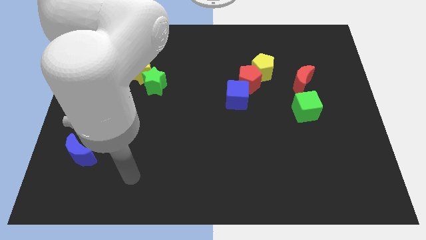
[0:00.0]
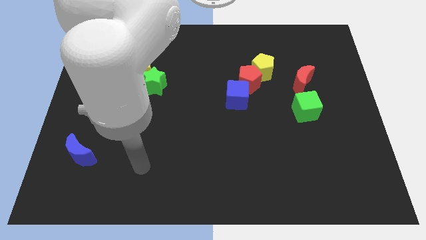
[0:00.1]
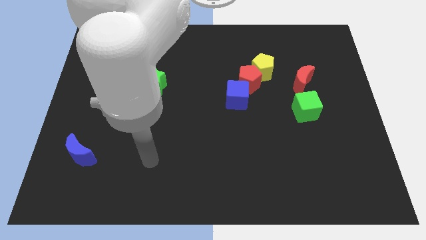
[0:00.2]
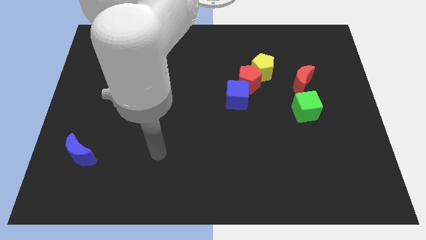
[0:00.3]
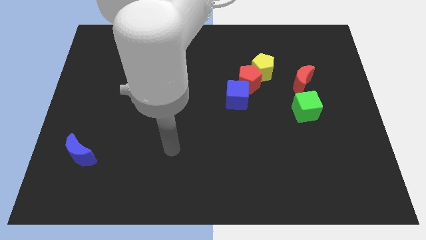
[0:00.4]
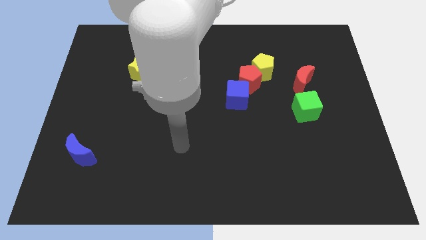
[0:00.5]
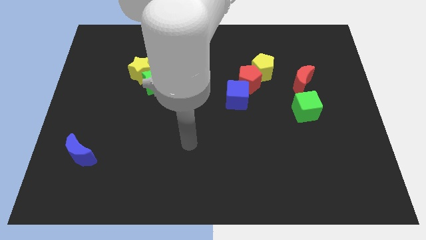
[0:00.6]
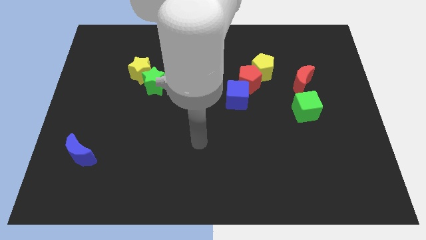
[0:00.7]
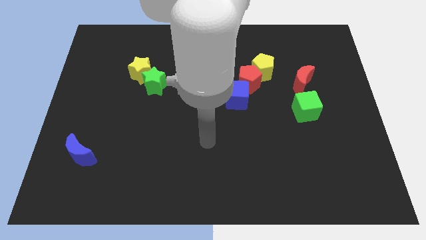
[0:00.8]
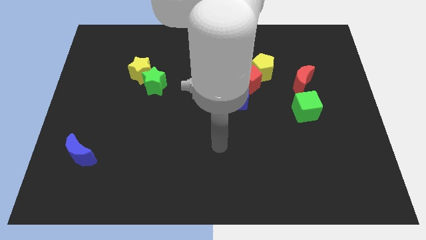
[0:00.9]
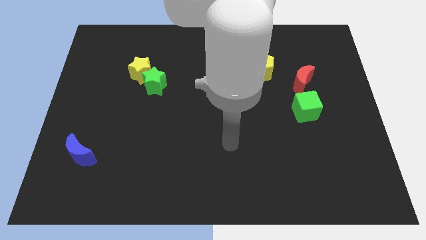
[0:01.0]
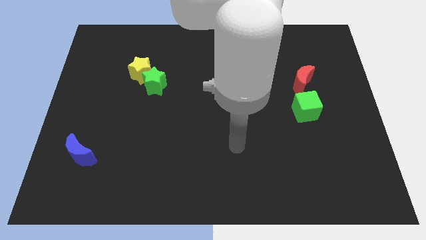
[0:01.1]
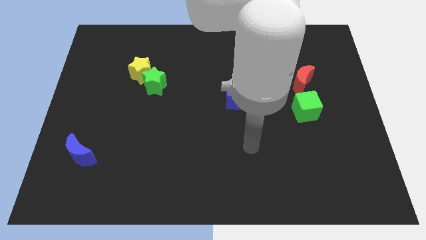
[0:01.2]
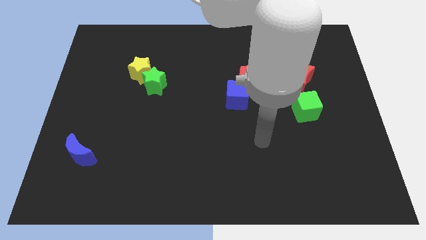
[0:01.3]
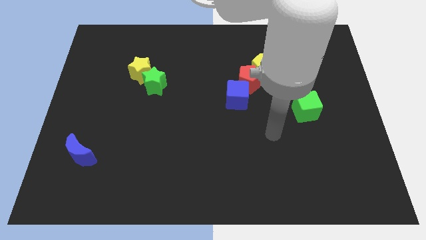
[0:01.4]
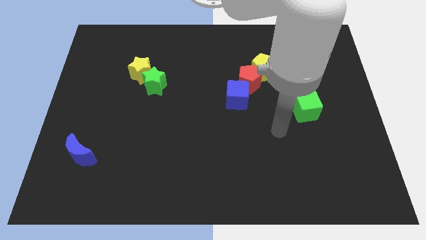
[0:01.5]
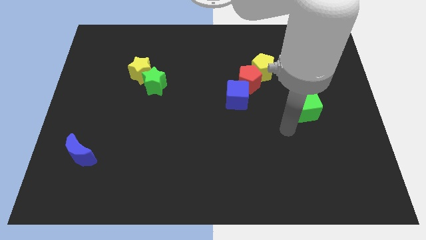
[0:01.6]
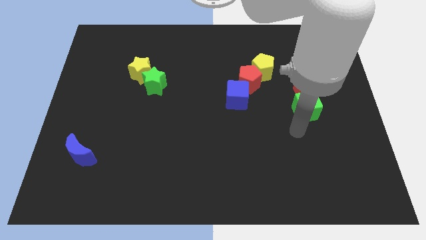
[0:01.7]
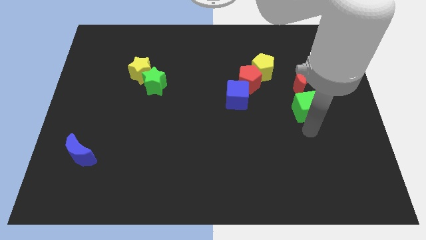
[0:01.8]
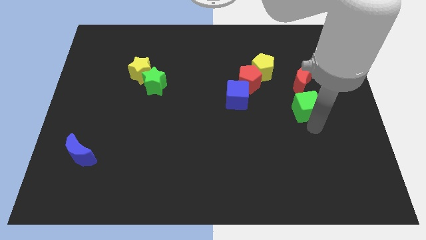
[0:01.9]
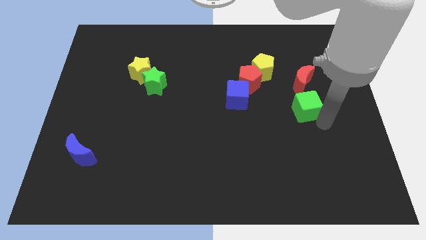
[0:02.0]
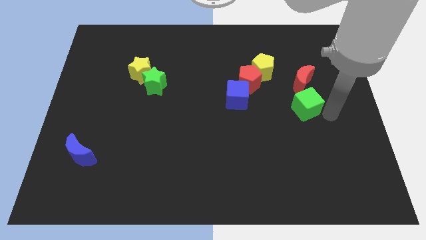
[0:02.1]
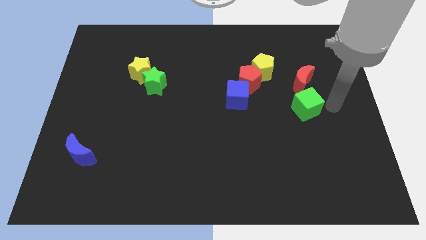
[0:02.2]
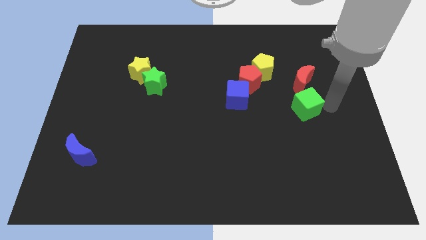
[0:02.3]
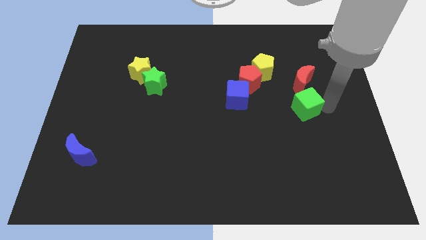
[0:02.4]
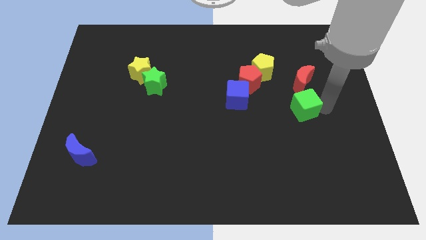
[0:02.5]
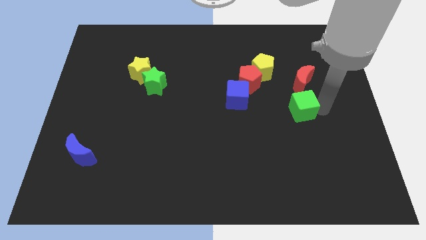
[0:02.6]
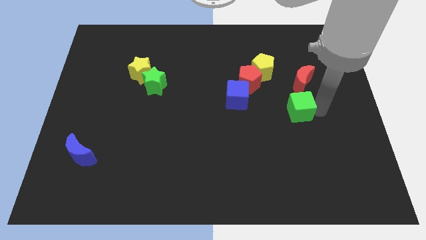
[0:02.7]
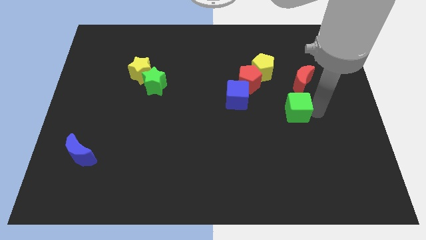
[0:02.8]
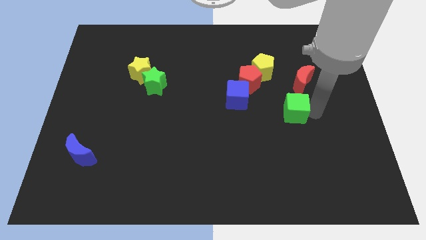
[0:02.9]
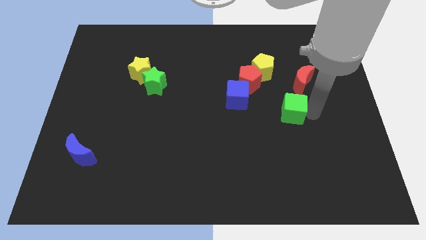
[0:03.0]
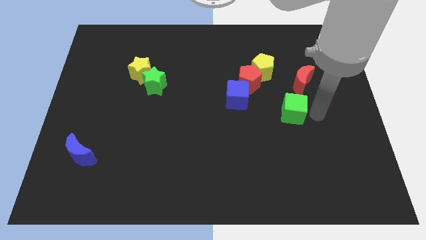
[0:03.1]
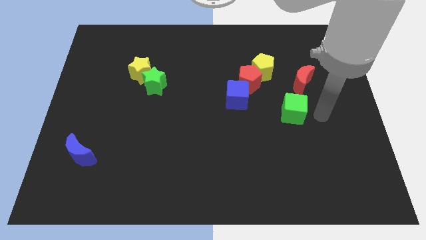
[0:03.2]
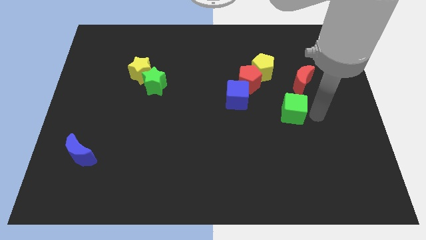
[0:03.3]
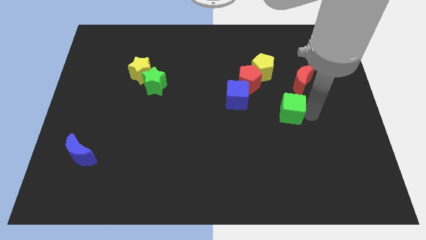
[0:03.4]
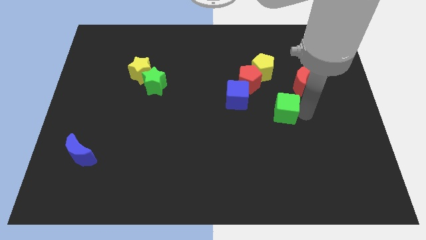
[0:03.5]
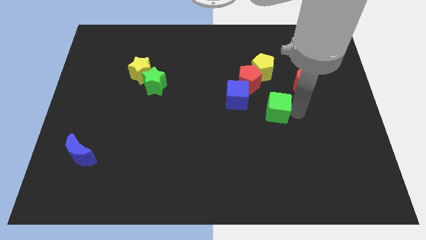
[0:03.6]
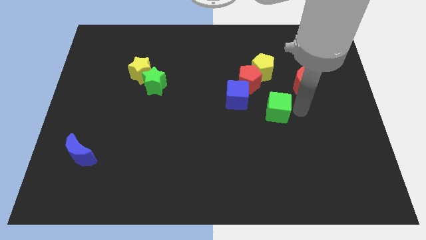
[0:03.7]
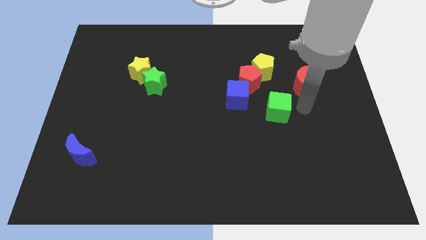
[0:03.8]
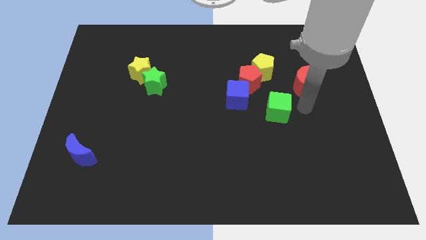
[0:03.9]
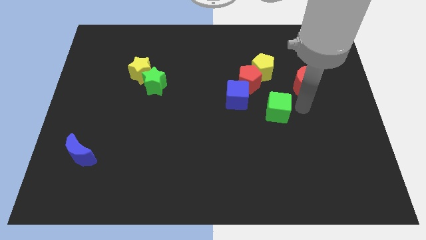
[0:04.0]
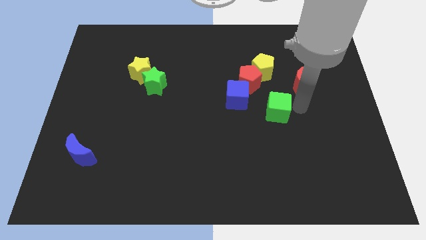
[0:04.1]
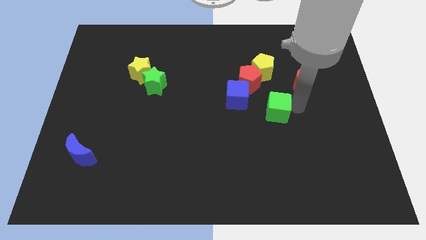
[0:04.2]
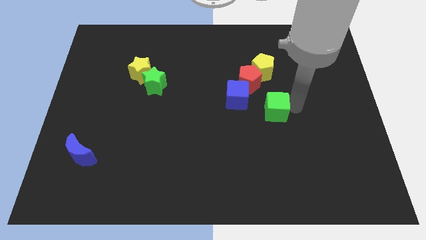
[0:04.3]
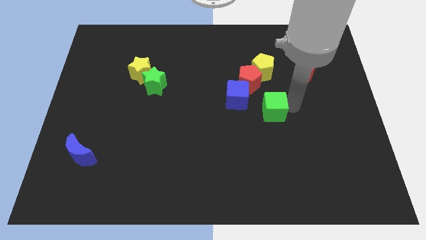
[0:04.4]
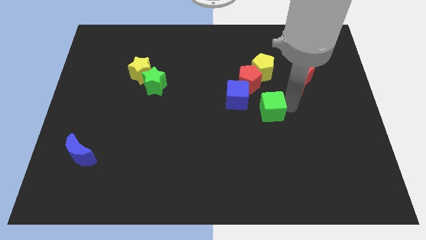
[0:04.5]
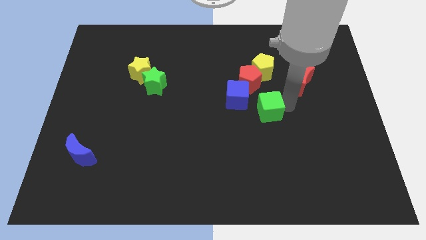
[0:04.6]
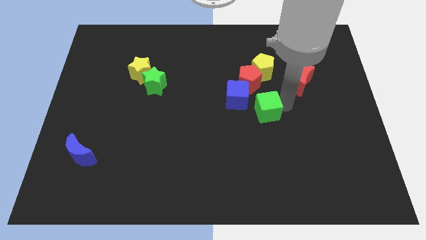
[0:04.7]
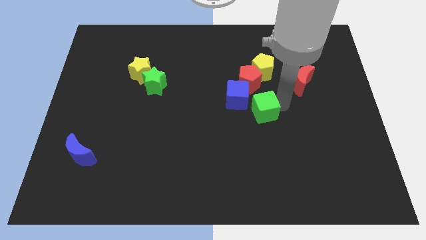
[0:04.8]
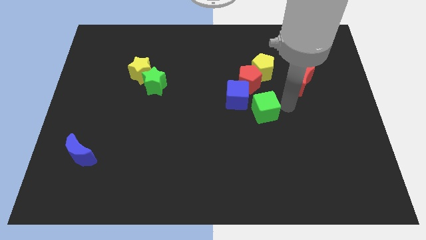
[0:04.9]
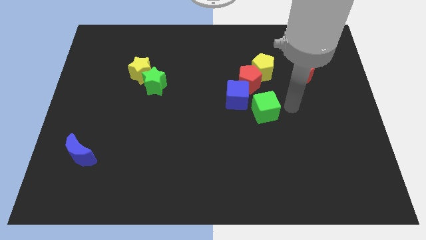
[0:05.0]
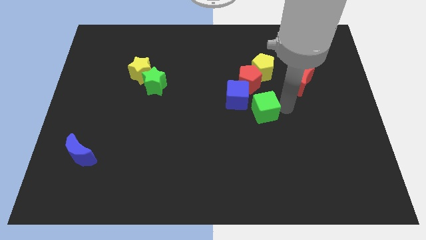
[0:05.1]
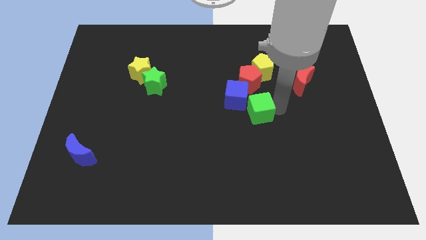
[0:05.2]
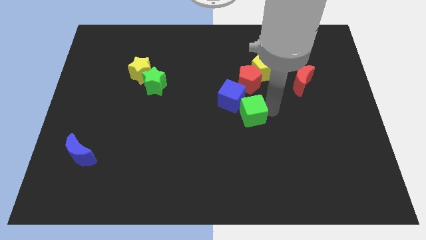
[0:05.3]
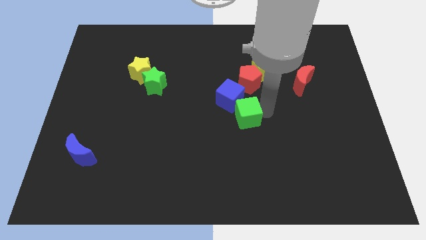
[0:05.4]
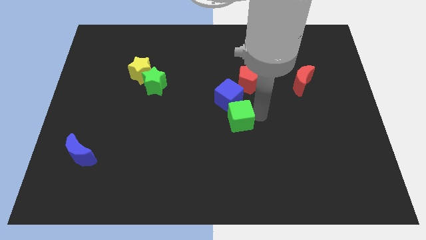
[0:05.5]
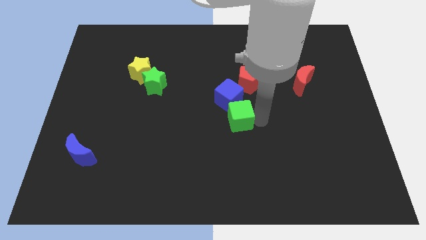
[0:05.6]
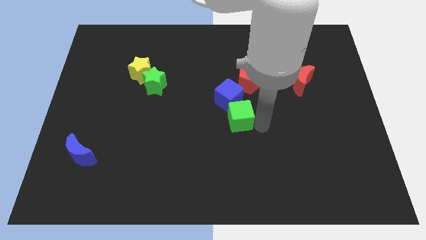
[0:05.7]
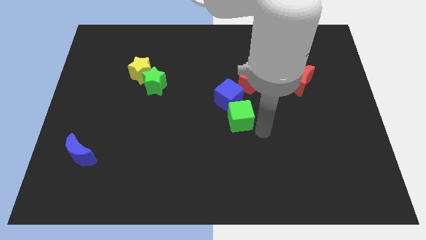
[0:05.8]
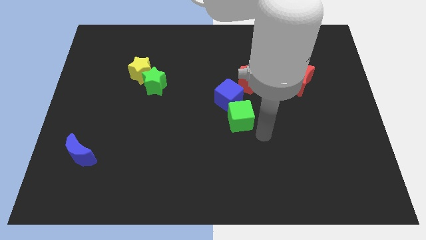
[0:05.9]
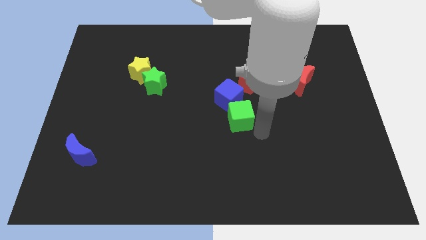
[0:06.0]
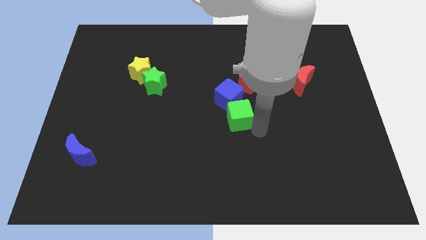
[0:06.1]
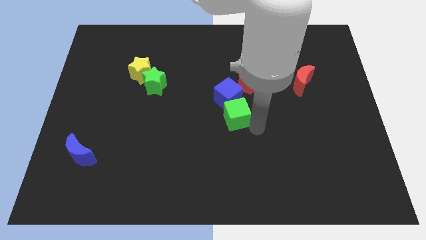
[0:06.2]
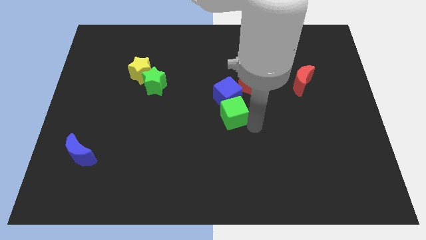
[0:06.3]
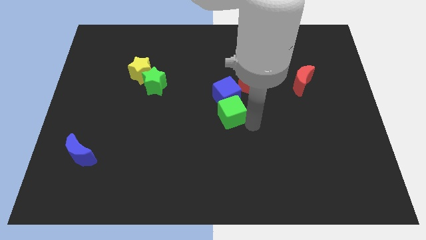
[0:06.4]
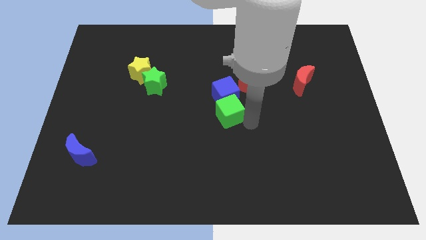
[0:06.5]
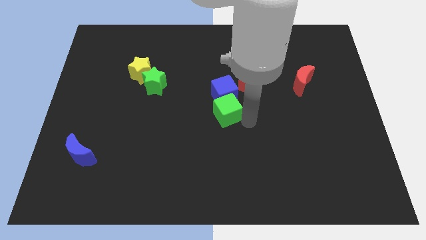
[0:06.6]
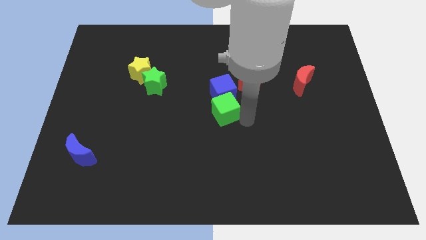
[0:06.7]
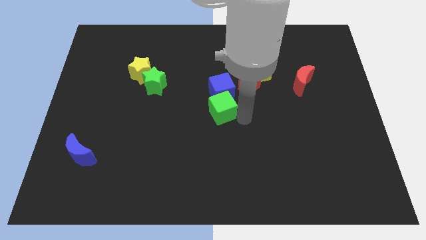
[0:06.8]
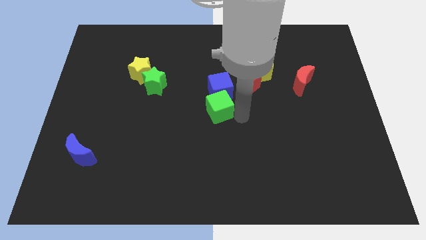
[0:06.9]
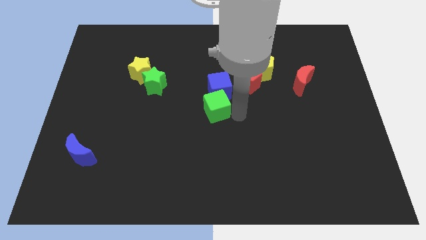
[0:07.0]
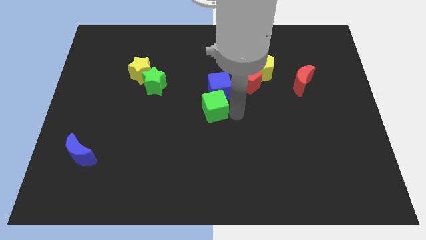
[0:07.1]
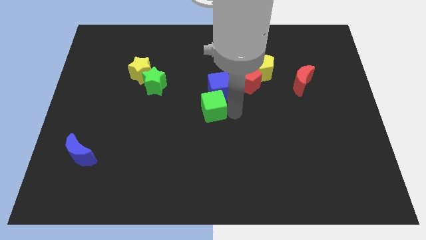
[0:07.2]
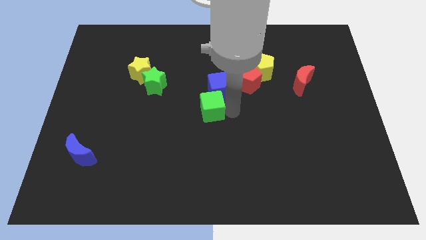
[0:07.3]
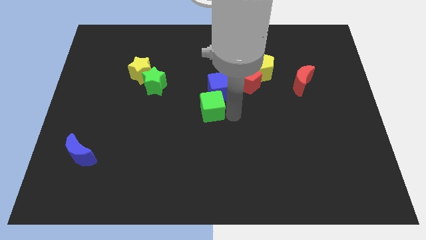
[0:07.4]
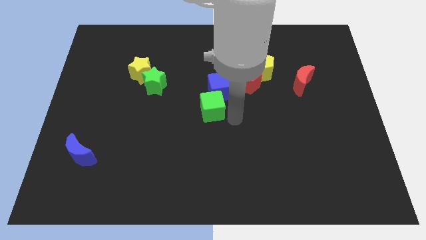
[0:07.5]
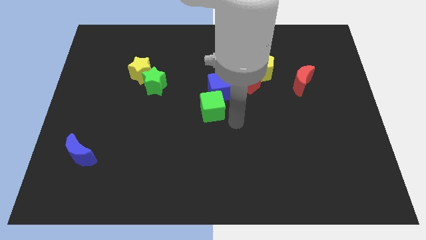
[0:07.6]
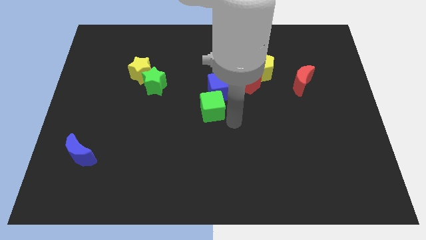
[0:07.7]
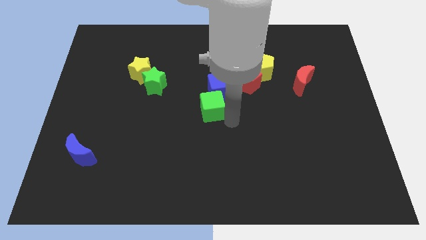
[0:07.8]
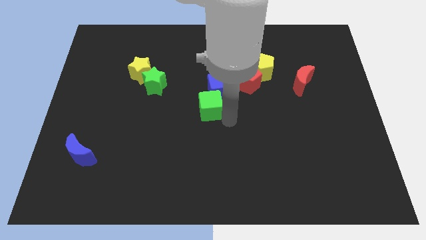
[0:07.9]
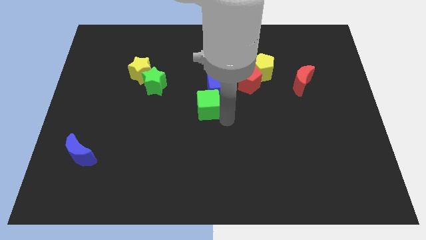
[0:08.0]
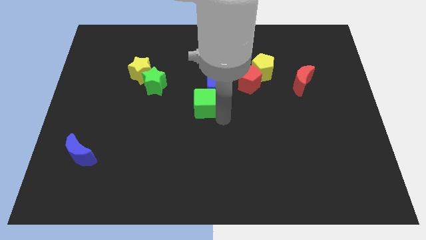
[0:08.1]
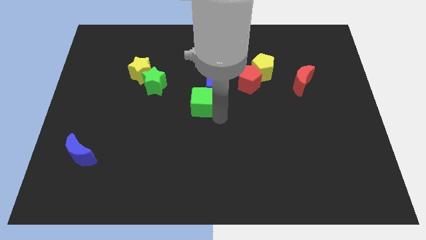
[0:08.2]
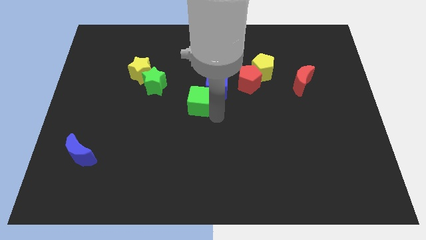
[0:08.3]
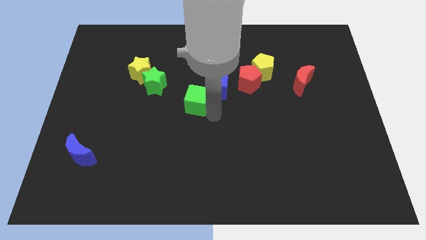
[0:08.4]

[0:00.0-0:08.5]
slide the green cube to the bottom right of the green star
